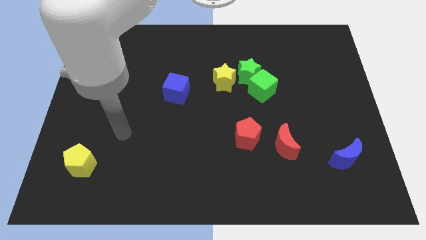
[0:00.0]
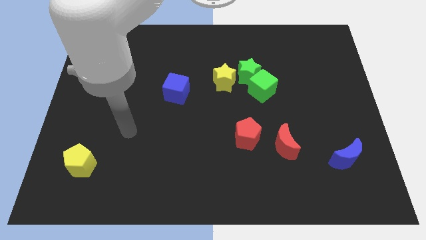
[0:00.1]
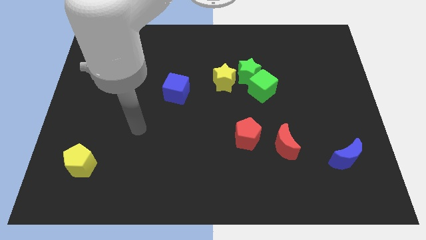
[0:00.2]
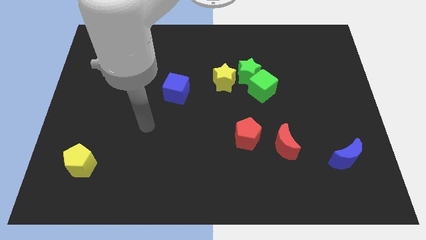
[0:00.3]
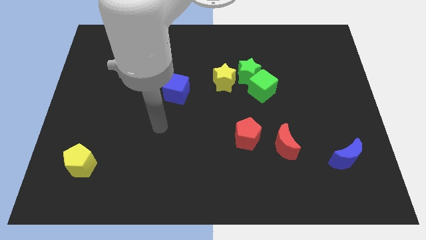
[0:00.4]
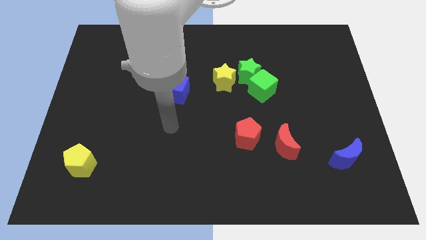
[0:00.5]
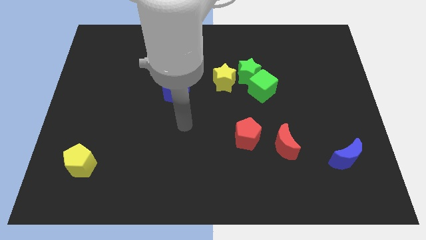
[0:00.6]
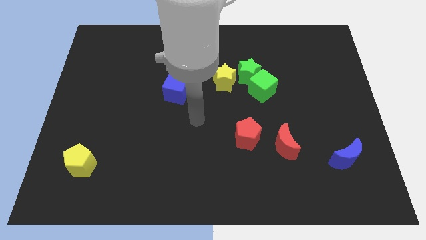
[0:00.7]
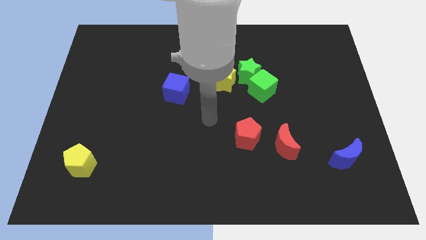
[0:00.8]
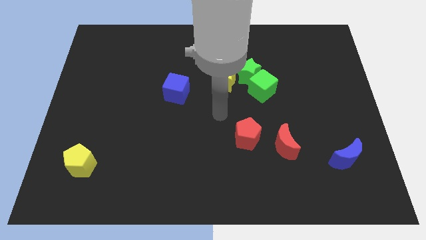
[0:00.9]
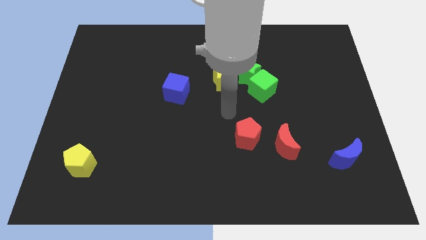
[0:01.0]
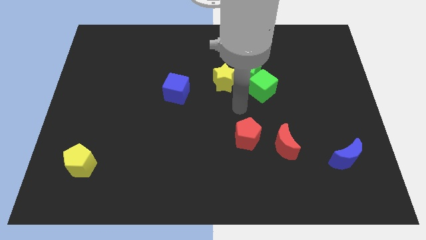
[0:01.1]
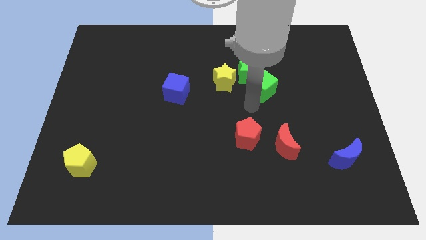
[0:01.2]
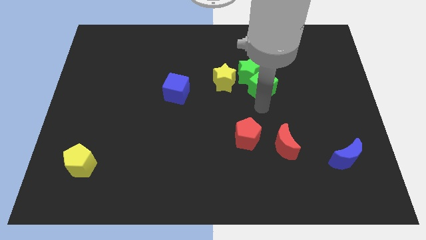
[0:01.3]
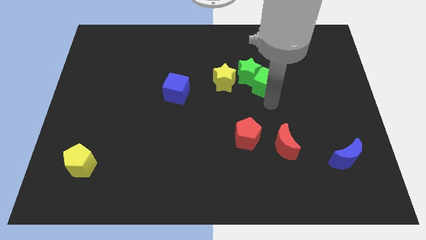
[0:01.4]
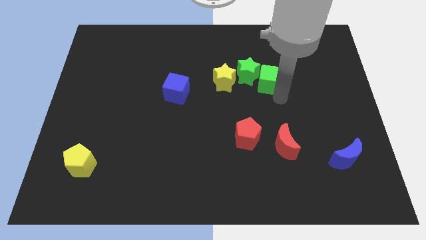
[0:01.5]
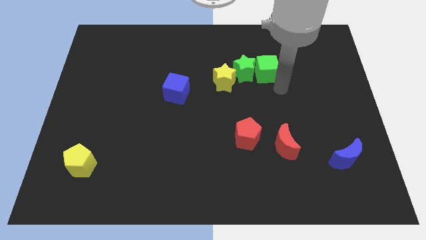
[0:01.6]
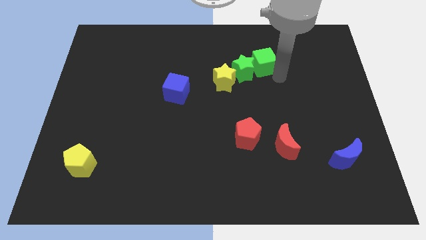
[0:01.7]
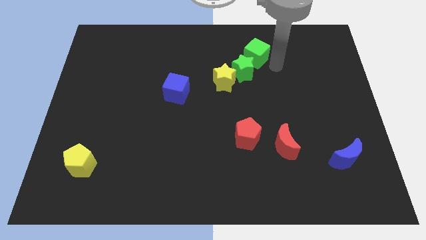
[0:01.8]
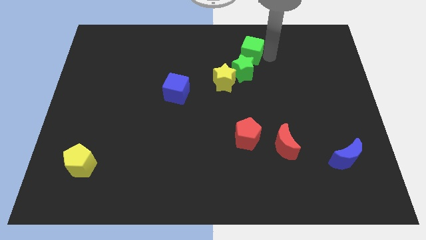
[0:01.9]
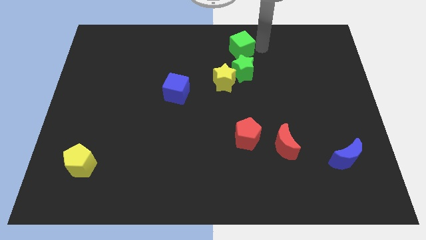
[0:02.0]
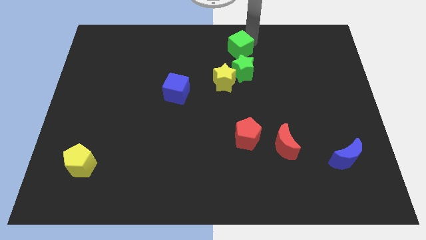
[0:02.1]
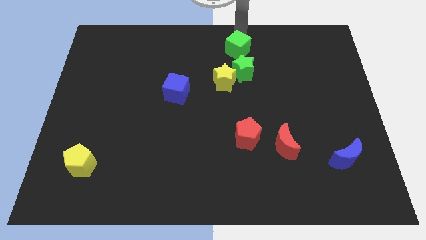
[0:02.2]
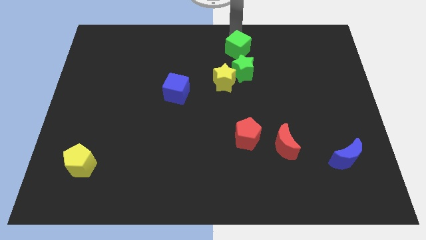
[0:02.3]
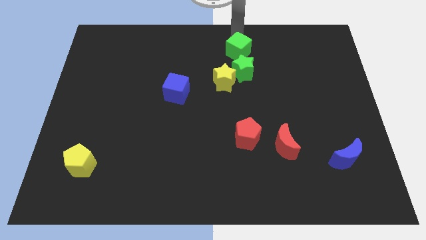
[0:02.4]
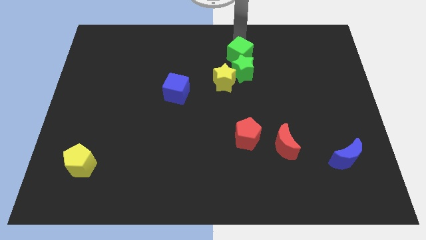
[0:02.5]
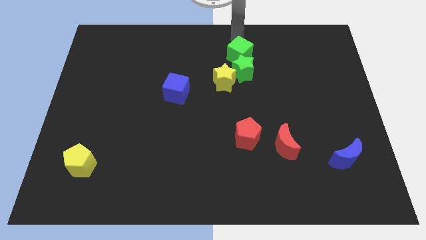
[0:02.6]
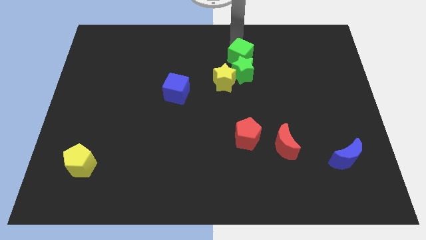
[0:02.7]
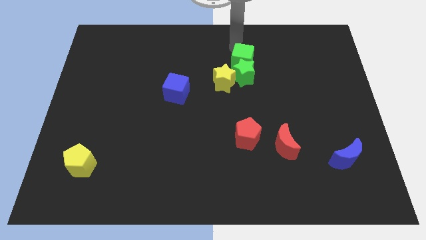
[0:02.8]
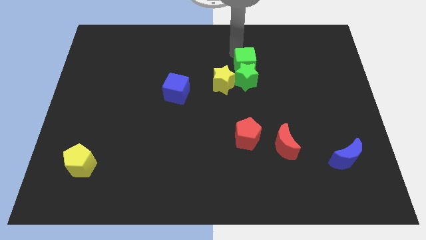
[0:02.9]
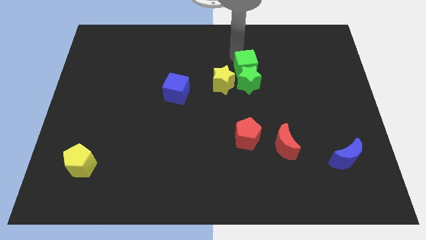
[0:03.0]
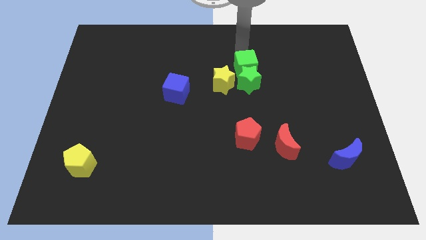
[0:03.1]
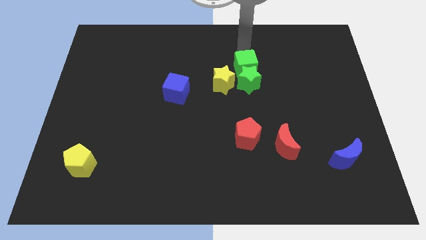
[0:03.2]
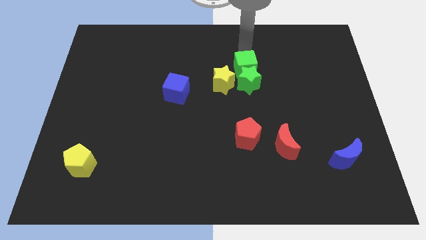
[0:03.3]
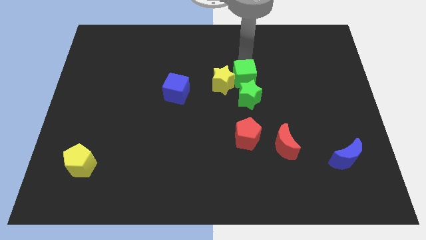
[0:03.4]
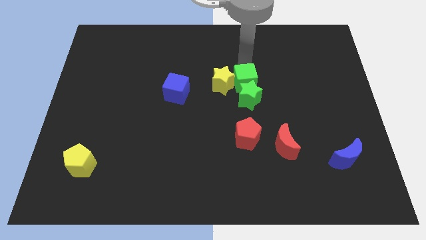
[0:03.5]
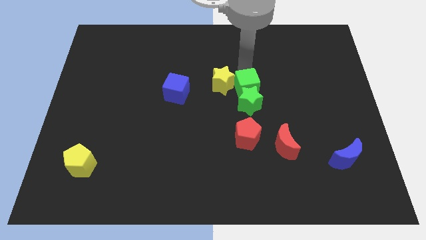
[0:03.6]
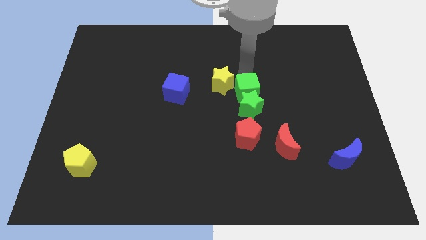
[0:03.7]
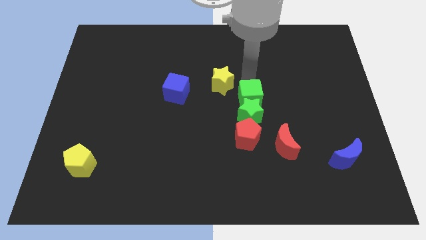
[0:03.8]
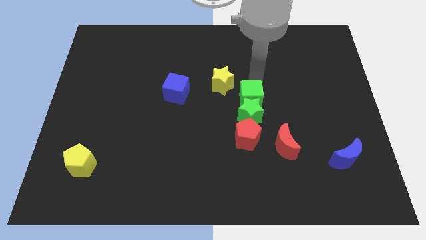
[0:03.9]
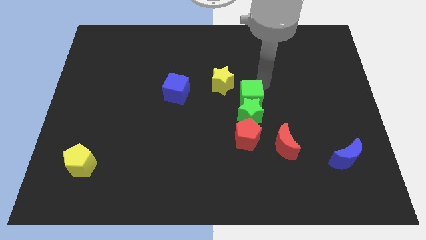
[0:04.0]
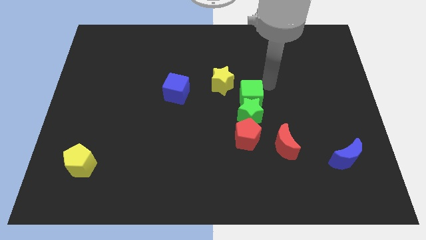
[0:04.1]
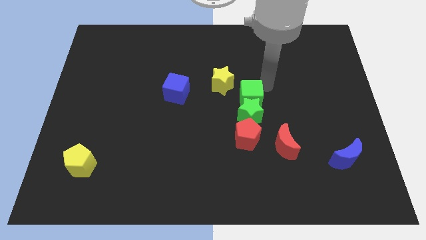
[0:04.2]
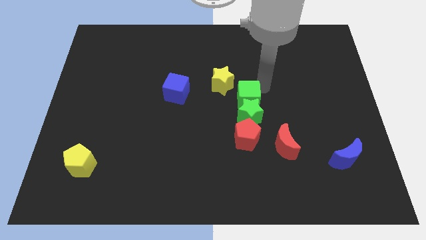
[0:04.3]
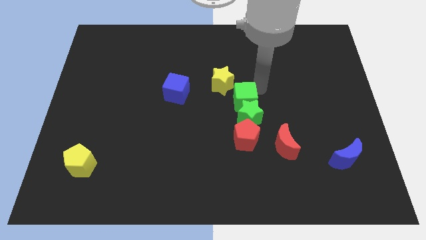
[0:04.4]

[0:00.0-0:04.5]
slide the green cube to the bottom of the yellow star

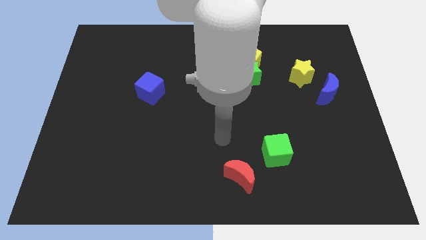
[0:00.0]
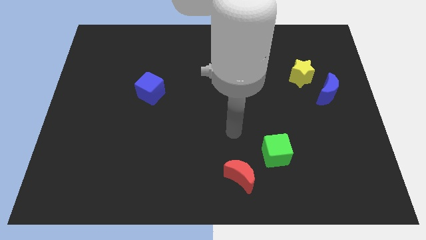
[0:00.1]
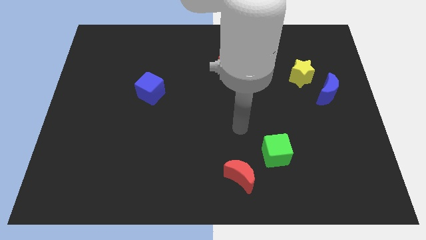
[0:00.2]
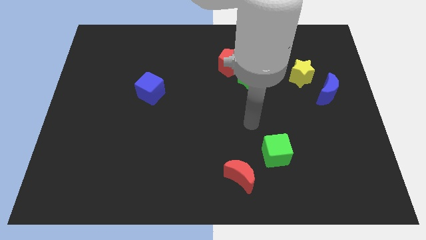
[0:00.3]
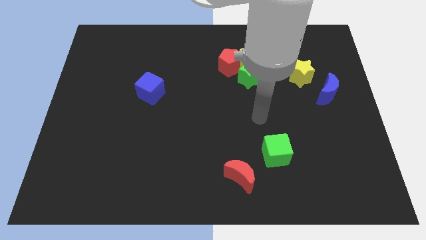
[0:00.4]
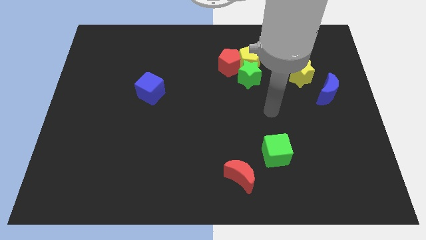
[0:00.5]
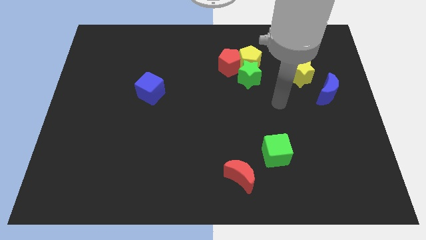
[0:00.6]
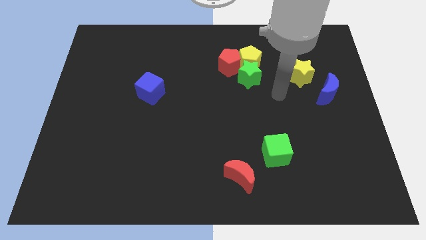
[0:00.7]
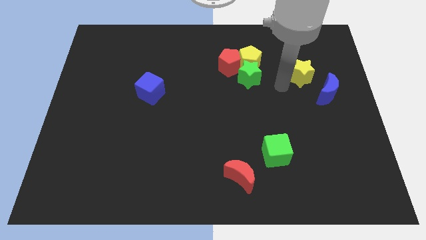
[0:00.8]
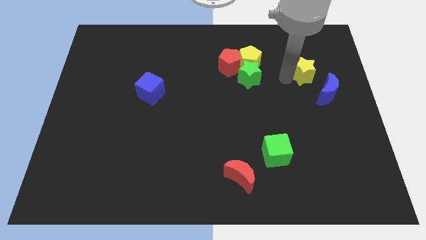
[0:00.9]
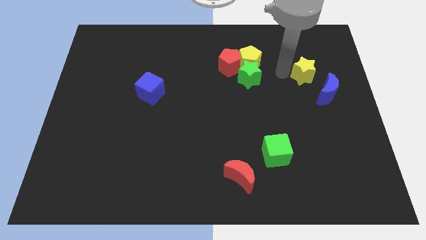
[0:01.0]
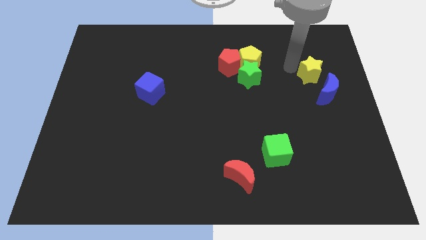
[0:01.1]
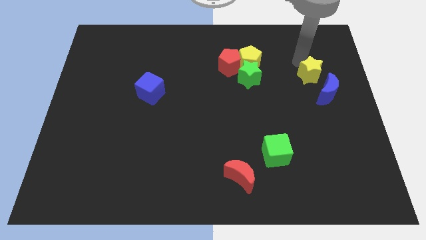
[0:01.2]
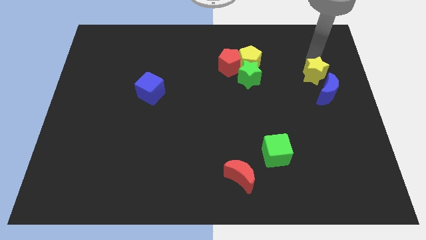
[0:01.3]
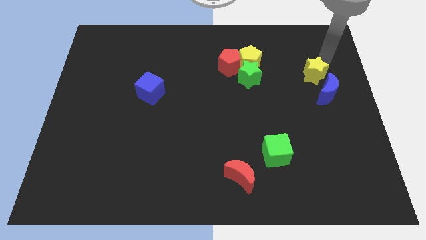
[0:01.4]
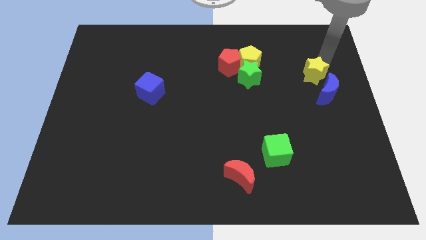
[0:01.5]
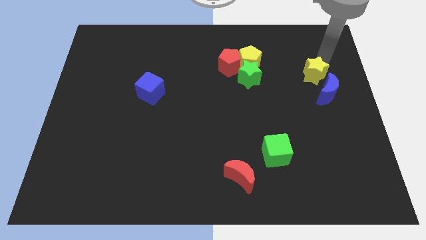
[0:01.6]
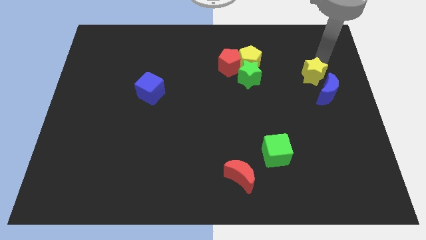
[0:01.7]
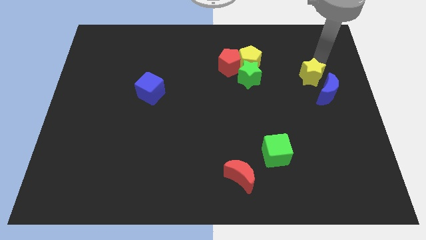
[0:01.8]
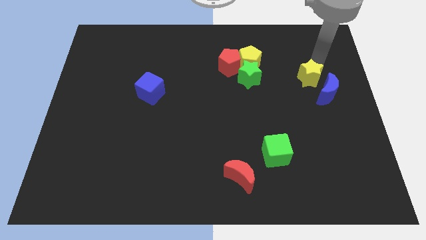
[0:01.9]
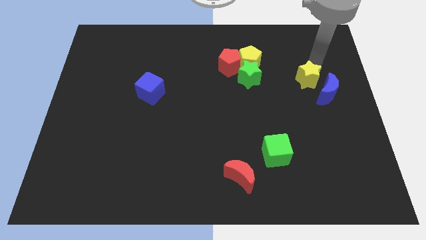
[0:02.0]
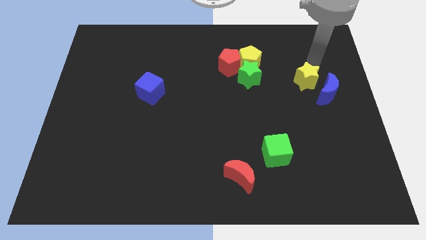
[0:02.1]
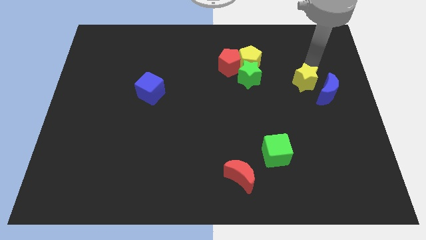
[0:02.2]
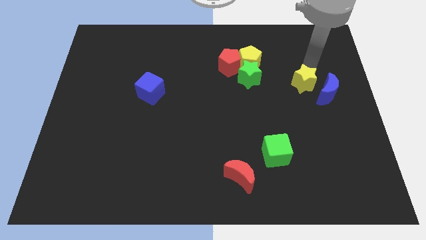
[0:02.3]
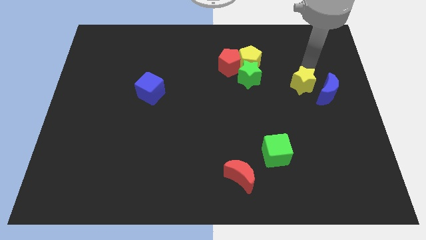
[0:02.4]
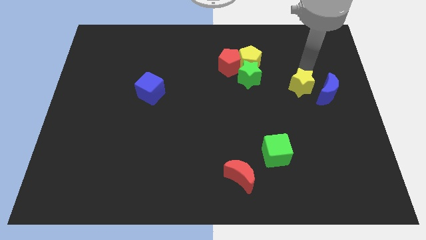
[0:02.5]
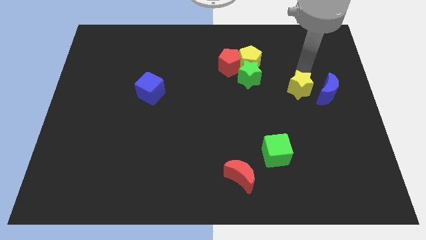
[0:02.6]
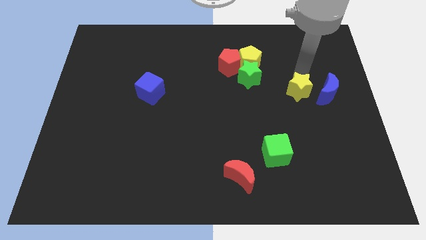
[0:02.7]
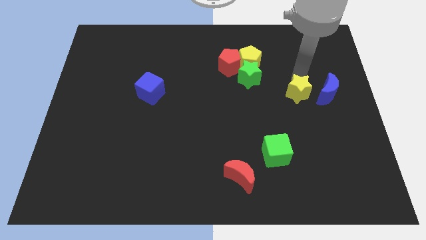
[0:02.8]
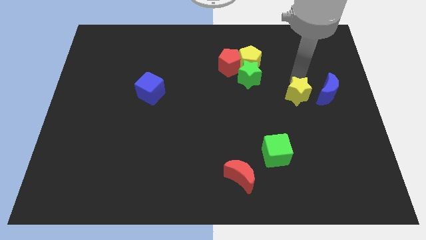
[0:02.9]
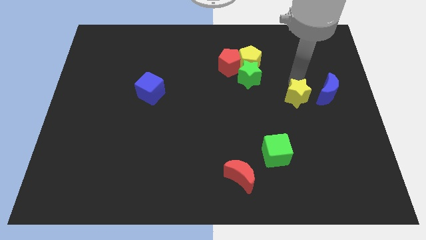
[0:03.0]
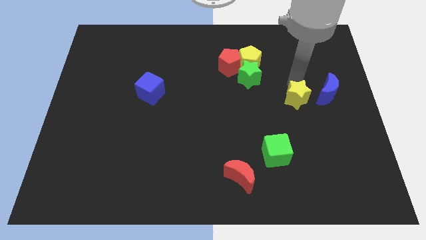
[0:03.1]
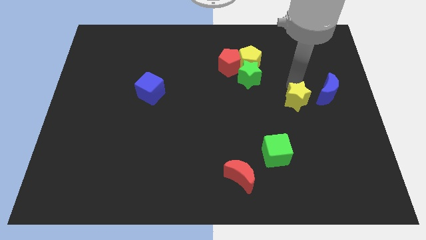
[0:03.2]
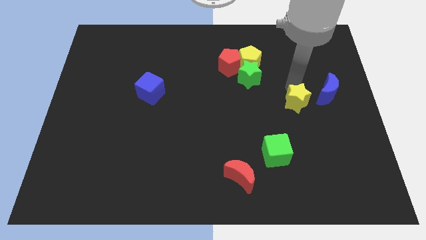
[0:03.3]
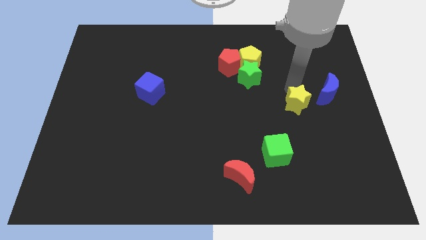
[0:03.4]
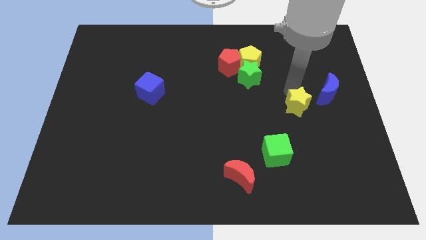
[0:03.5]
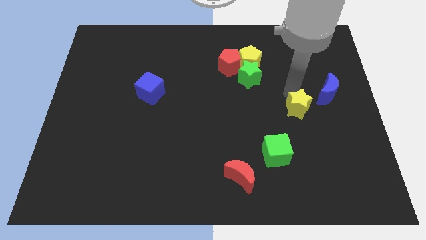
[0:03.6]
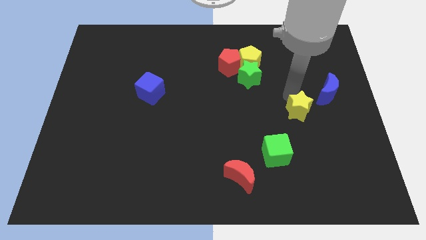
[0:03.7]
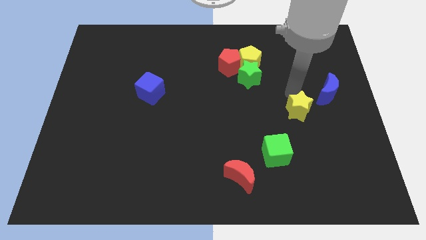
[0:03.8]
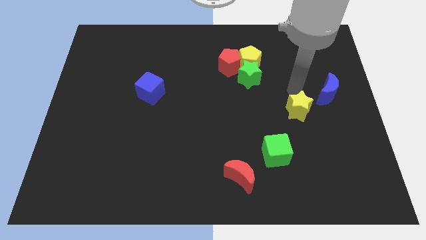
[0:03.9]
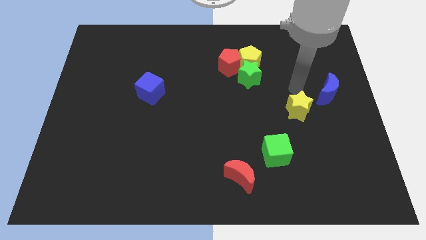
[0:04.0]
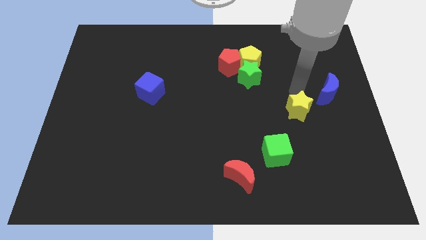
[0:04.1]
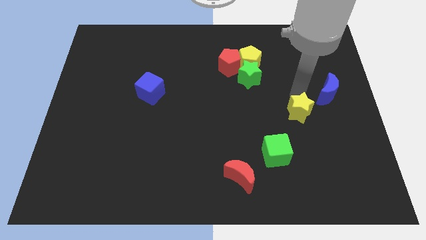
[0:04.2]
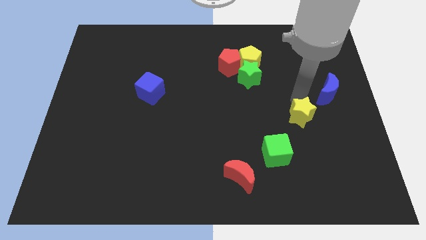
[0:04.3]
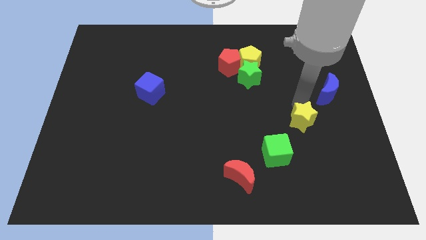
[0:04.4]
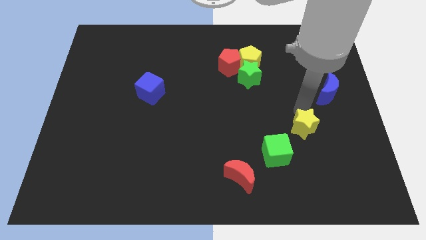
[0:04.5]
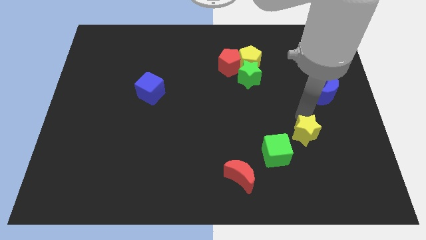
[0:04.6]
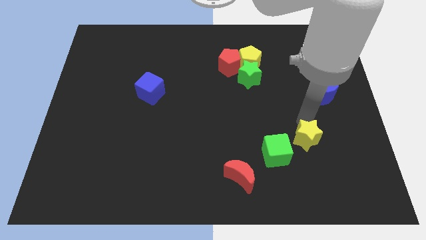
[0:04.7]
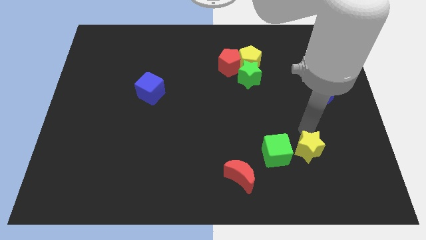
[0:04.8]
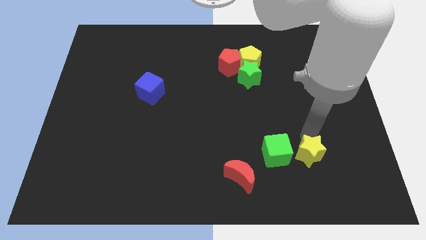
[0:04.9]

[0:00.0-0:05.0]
slide the yellow star diagonally down and to the right of the green cube
